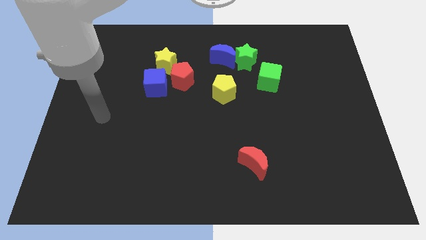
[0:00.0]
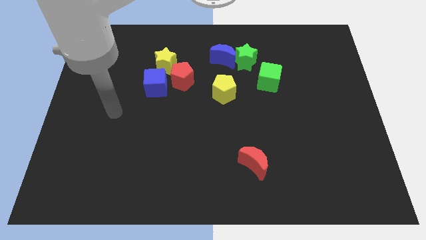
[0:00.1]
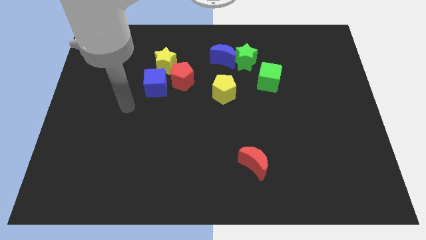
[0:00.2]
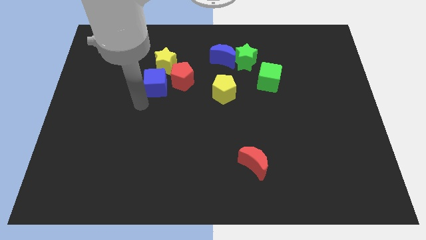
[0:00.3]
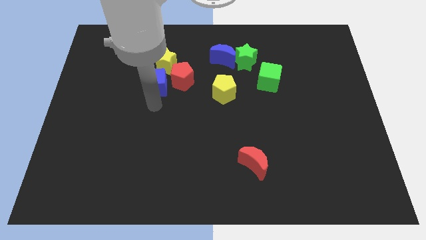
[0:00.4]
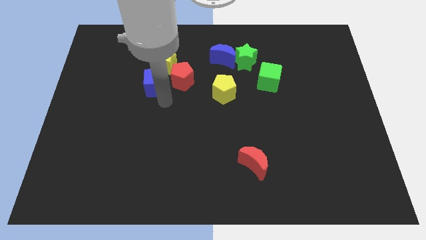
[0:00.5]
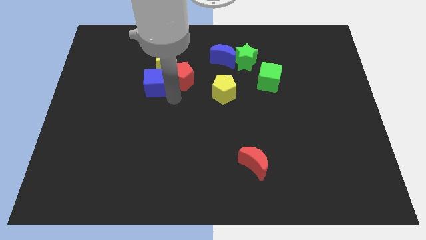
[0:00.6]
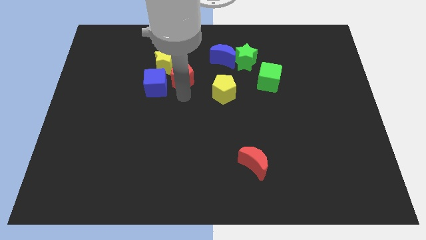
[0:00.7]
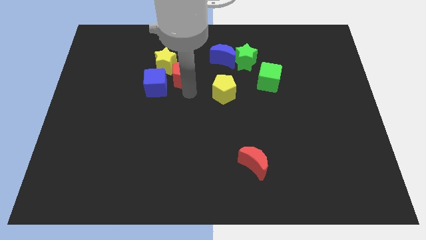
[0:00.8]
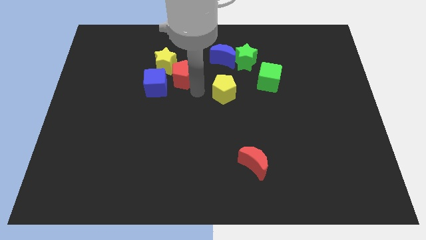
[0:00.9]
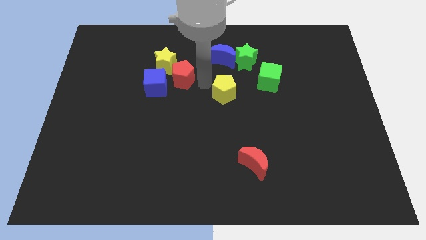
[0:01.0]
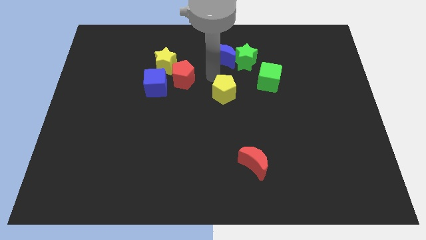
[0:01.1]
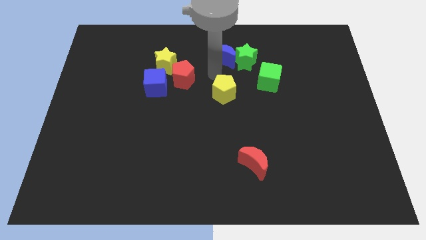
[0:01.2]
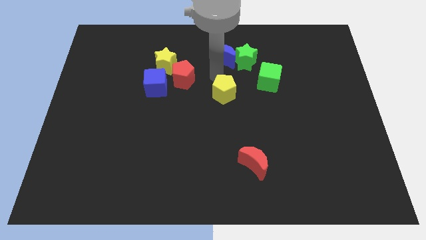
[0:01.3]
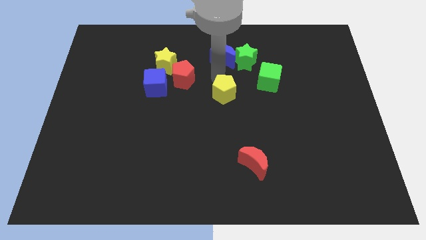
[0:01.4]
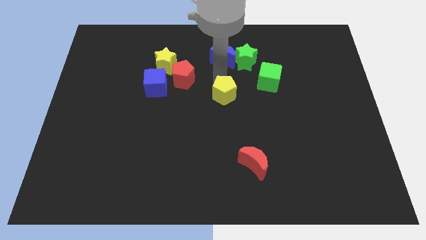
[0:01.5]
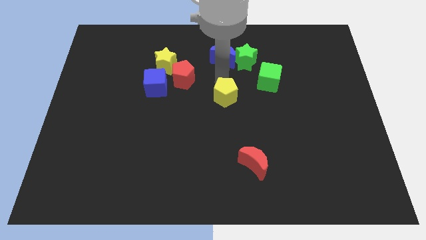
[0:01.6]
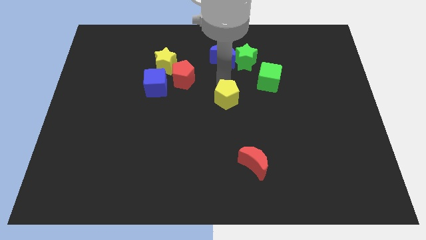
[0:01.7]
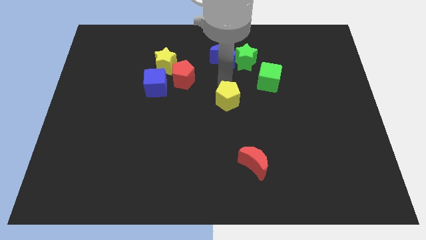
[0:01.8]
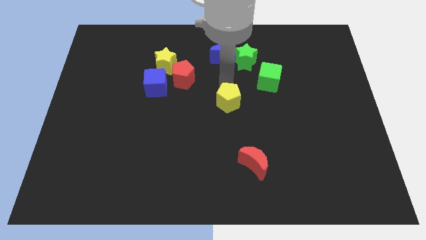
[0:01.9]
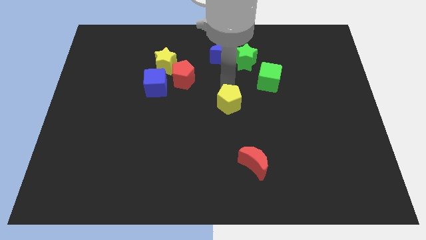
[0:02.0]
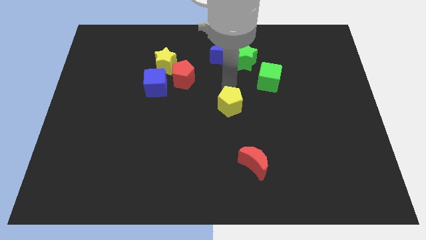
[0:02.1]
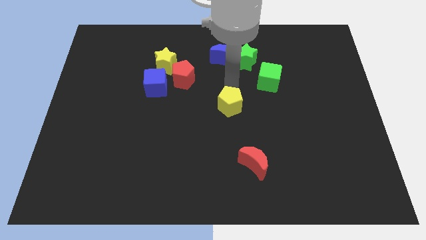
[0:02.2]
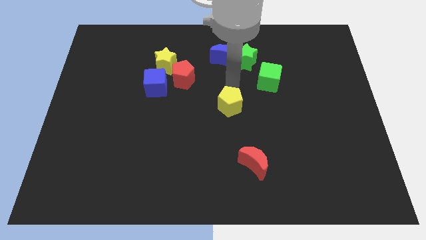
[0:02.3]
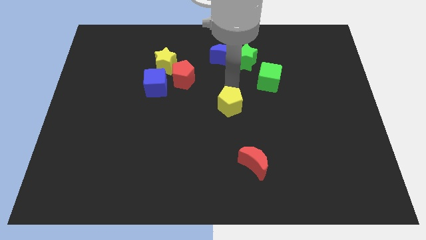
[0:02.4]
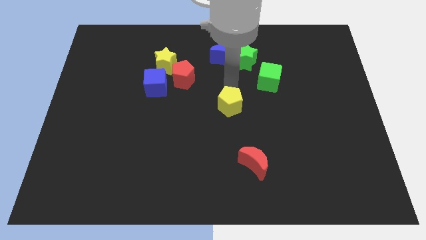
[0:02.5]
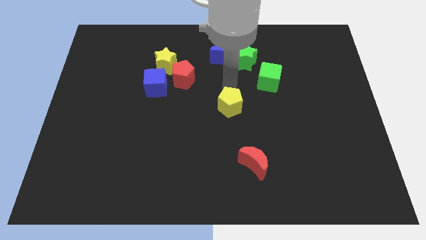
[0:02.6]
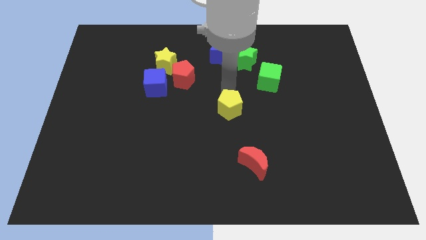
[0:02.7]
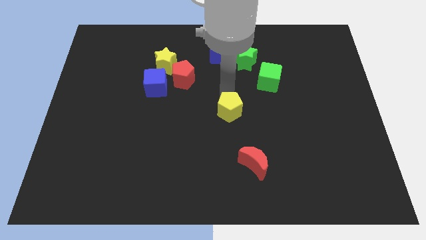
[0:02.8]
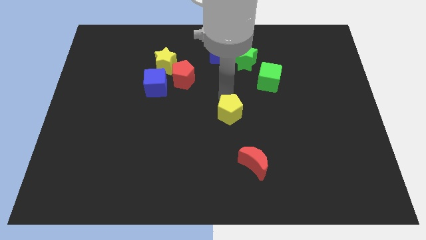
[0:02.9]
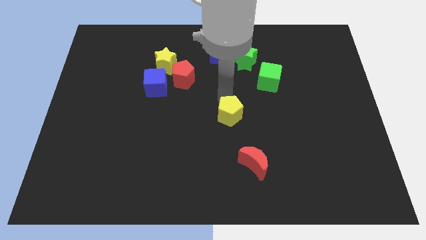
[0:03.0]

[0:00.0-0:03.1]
slightly push the yellow pentagon down

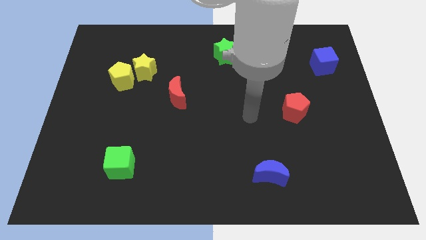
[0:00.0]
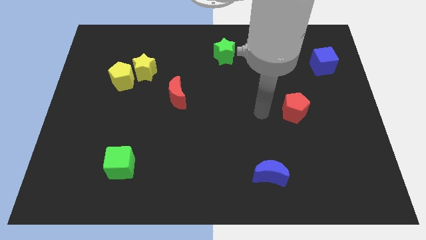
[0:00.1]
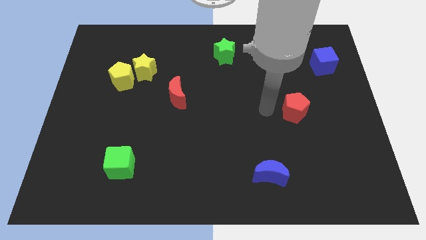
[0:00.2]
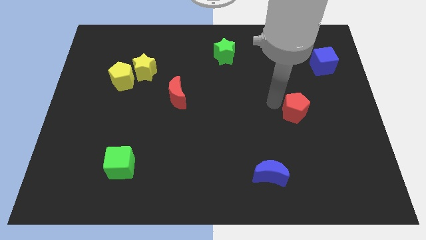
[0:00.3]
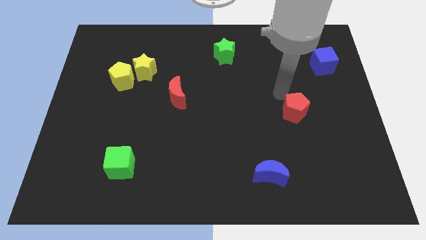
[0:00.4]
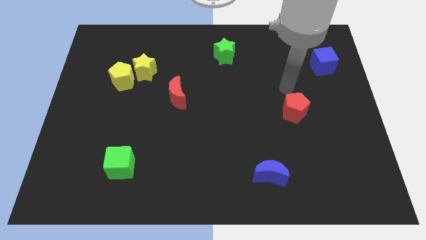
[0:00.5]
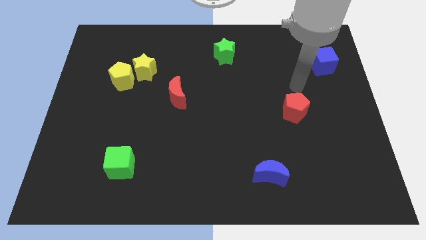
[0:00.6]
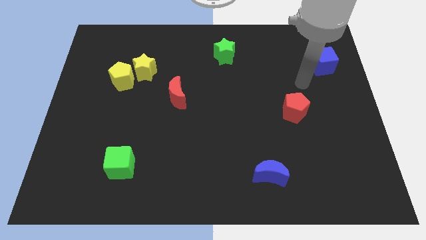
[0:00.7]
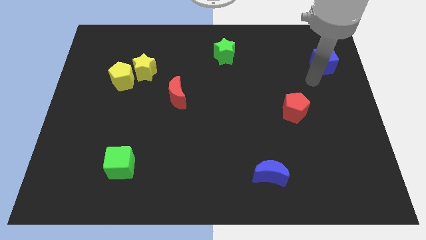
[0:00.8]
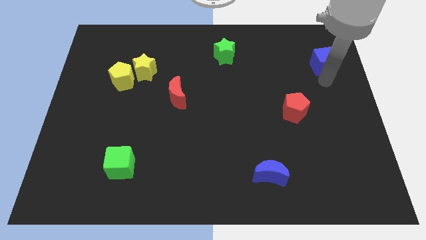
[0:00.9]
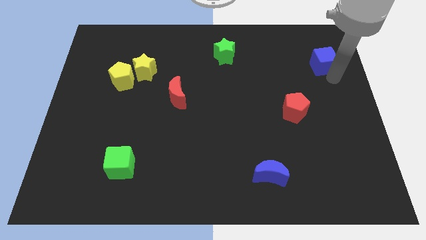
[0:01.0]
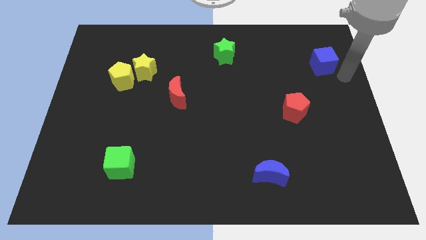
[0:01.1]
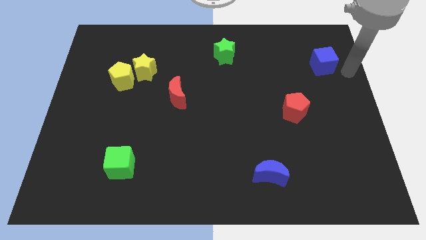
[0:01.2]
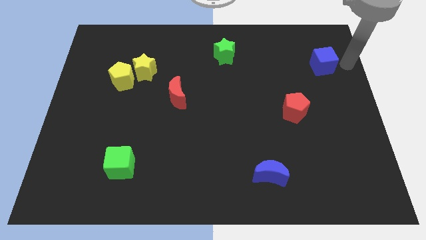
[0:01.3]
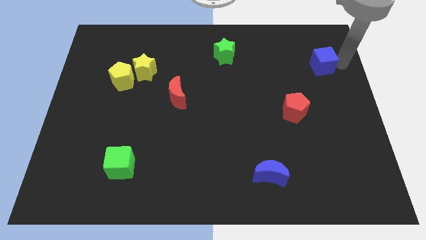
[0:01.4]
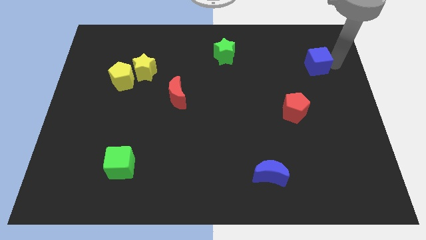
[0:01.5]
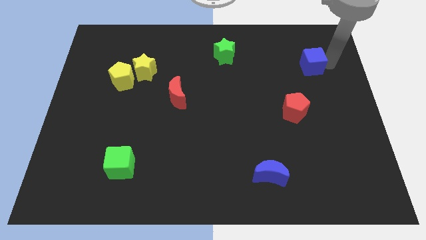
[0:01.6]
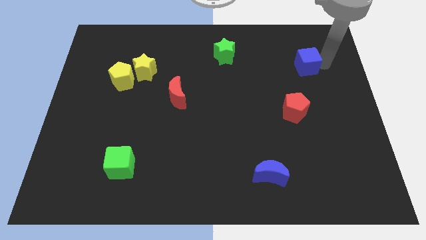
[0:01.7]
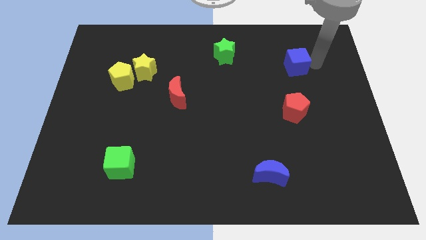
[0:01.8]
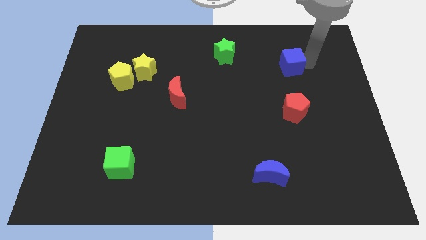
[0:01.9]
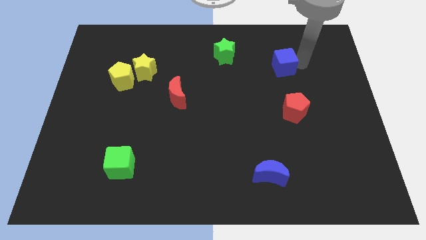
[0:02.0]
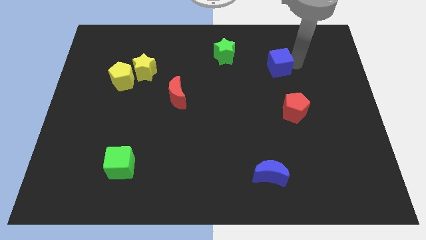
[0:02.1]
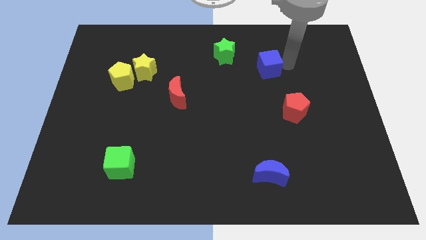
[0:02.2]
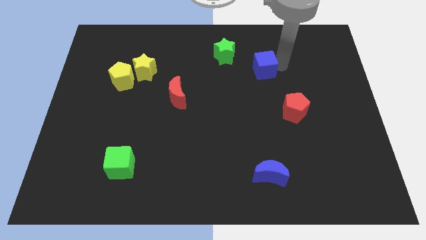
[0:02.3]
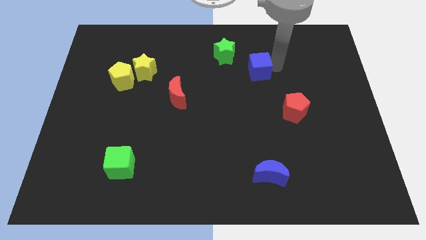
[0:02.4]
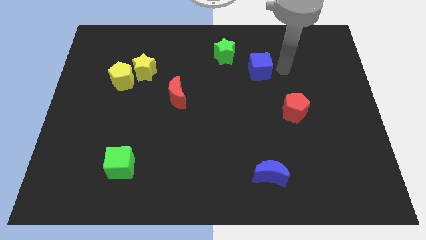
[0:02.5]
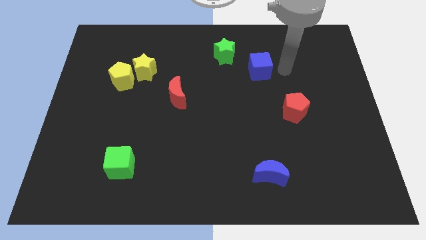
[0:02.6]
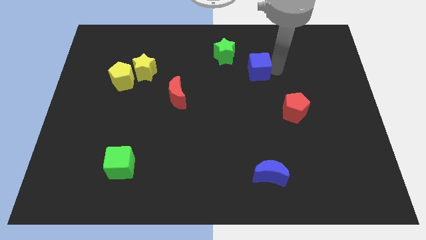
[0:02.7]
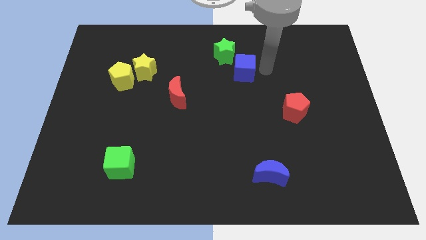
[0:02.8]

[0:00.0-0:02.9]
slide the blue cube left

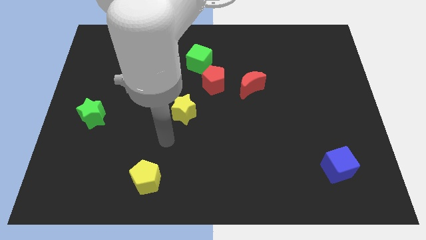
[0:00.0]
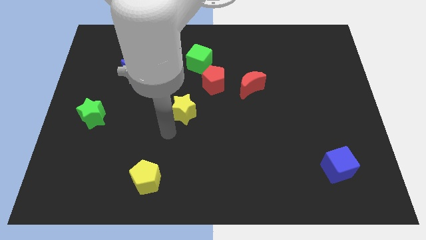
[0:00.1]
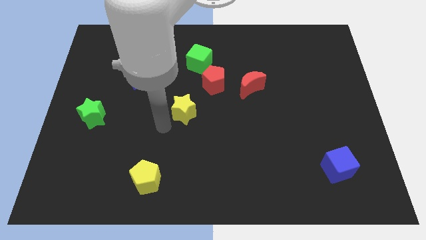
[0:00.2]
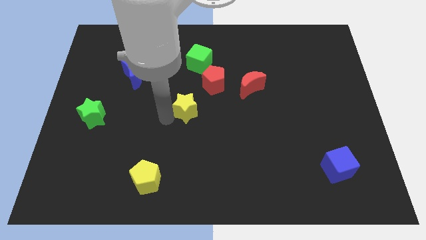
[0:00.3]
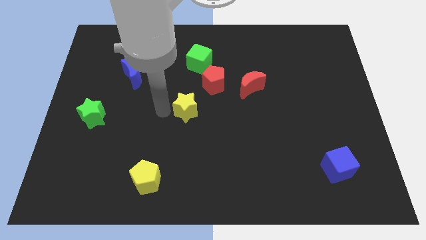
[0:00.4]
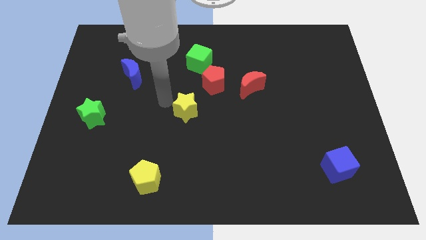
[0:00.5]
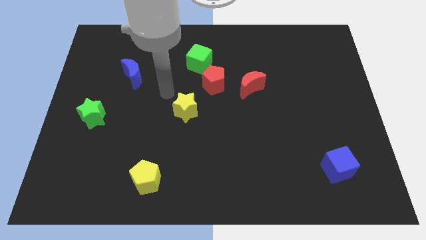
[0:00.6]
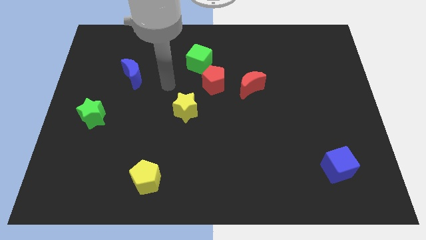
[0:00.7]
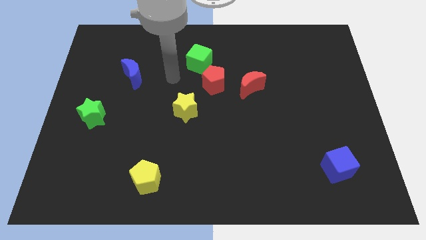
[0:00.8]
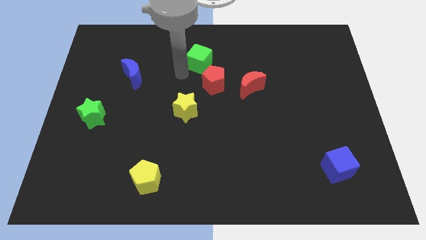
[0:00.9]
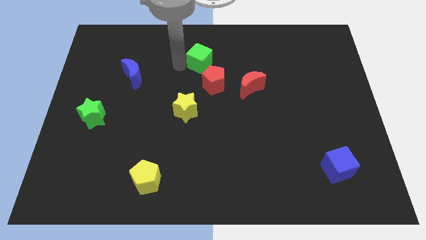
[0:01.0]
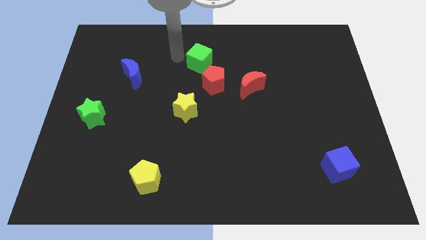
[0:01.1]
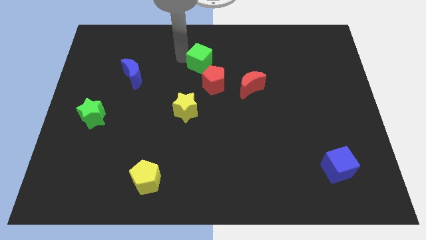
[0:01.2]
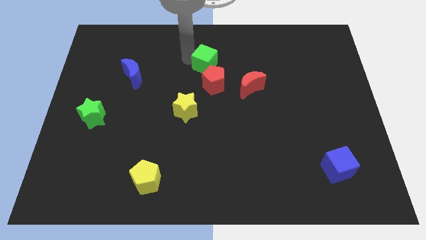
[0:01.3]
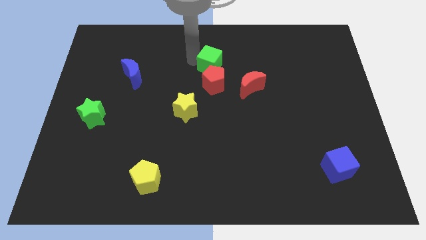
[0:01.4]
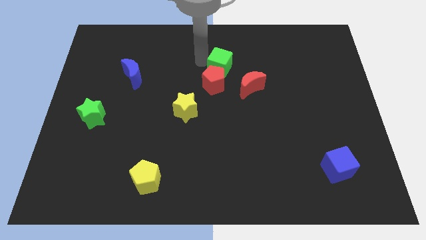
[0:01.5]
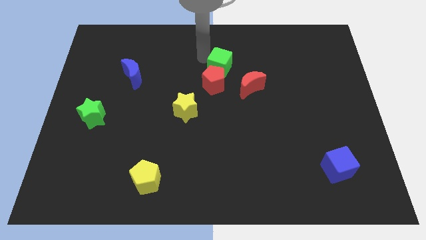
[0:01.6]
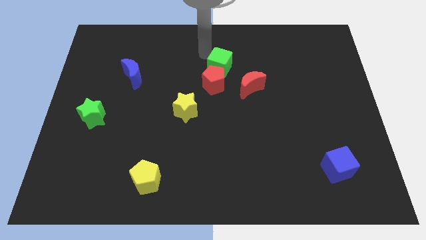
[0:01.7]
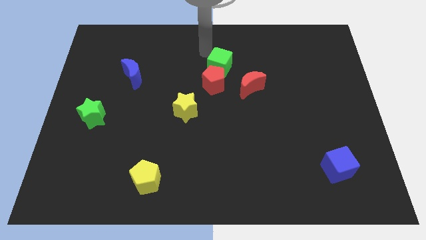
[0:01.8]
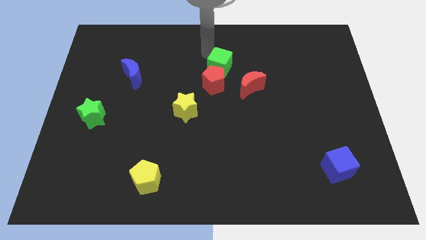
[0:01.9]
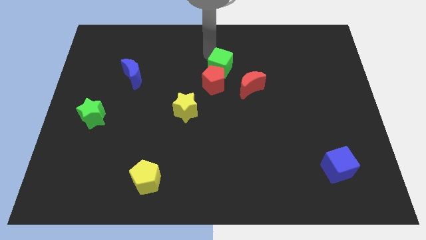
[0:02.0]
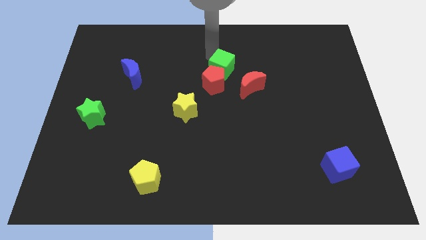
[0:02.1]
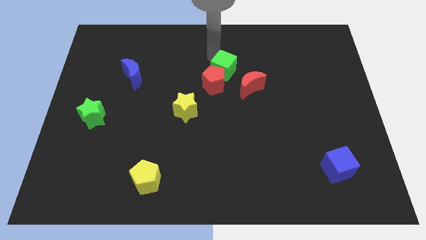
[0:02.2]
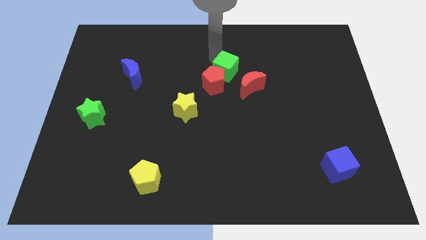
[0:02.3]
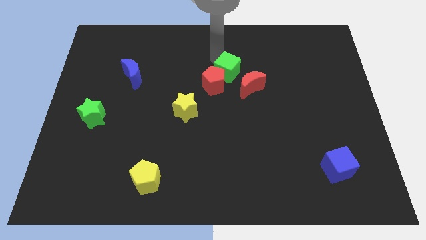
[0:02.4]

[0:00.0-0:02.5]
push the green cube downwards and right diagonally a little
